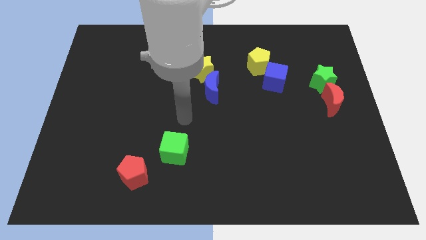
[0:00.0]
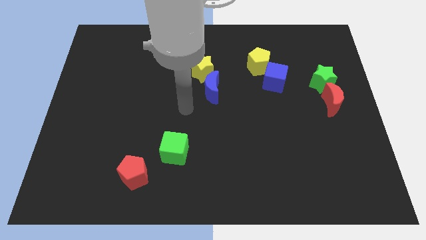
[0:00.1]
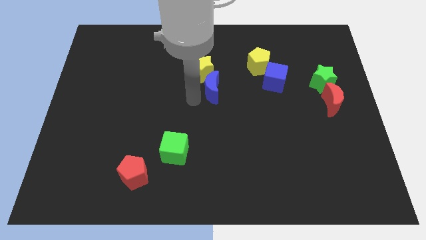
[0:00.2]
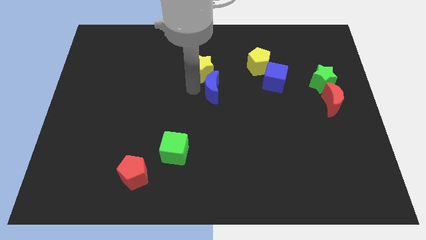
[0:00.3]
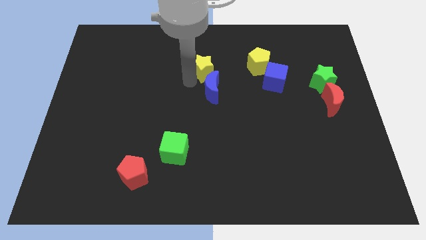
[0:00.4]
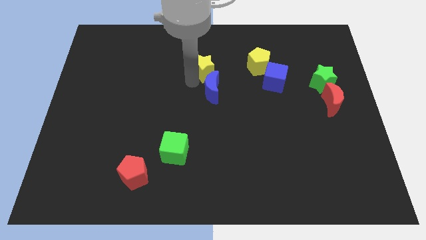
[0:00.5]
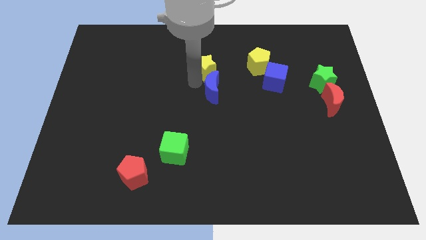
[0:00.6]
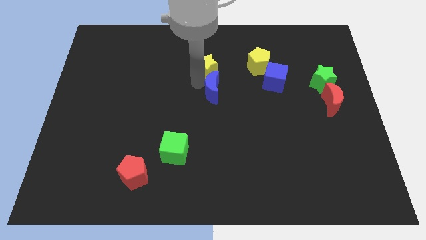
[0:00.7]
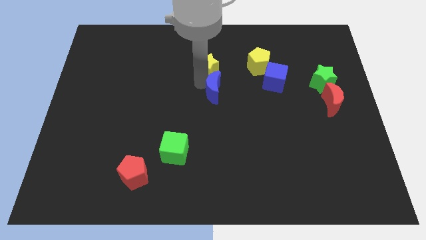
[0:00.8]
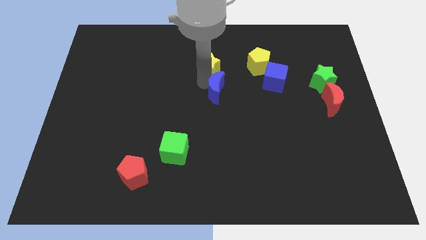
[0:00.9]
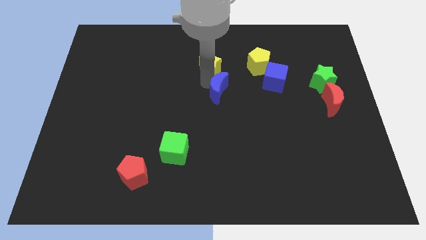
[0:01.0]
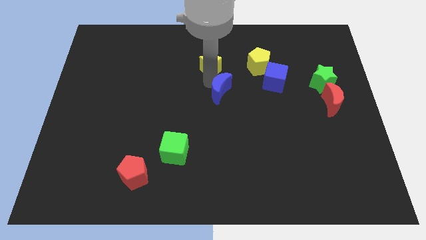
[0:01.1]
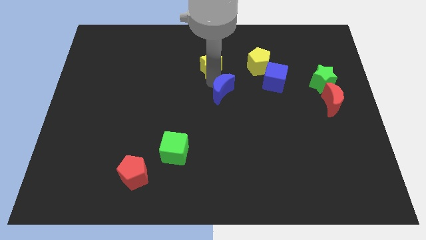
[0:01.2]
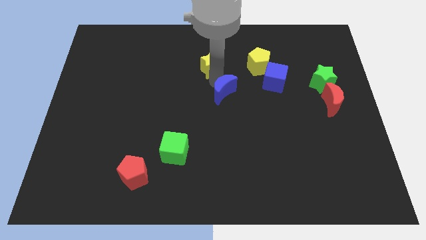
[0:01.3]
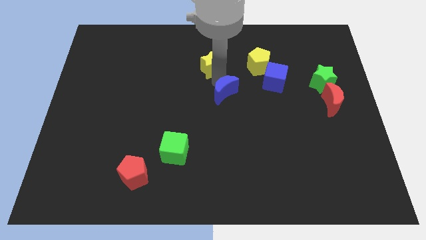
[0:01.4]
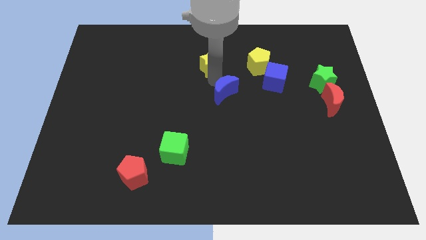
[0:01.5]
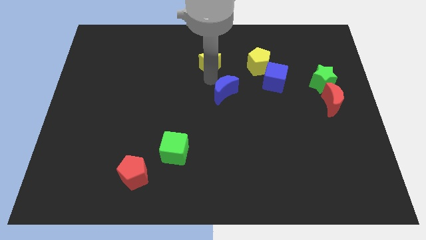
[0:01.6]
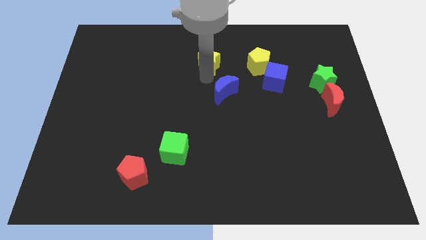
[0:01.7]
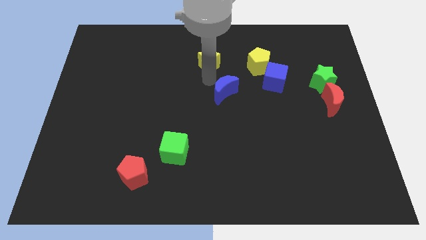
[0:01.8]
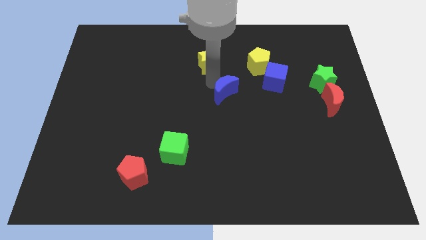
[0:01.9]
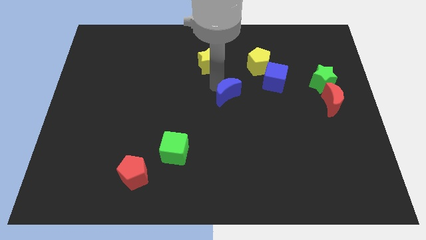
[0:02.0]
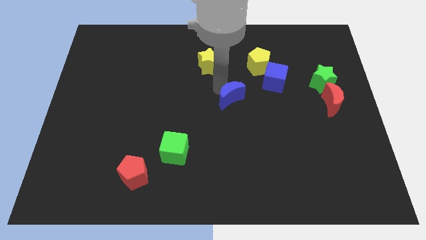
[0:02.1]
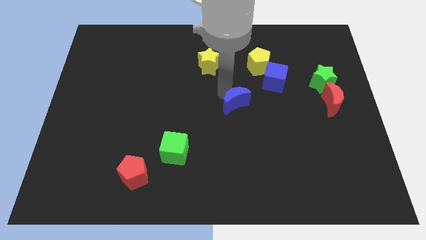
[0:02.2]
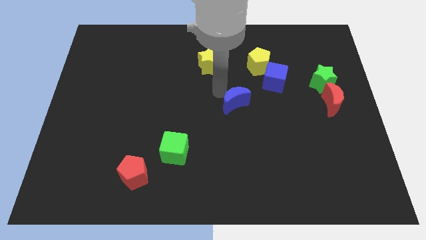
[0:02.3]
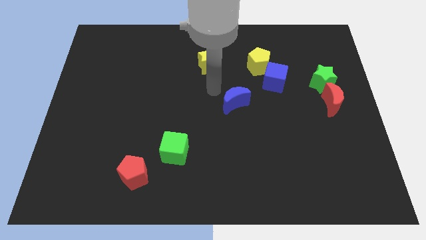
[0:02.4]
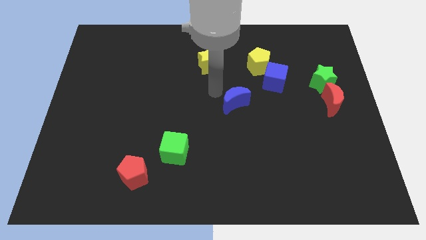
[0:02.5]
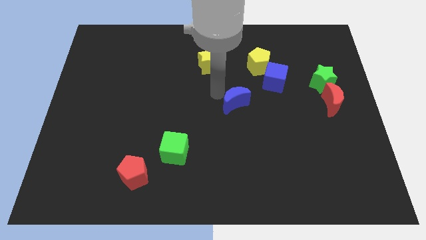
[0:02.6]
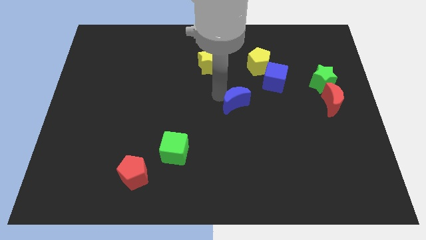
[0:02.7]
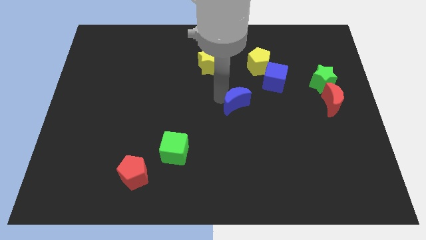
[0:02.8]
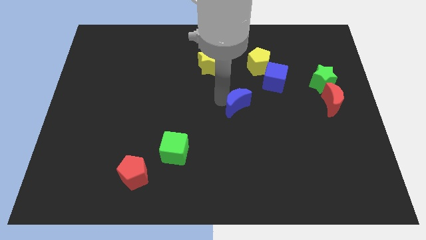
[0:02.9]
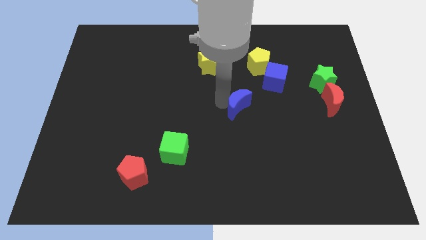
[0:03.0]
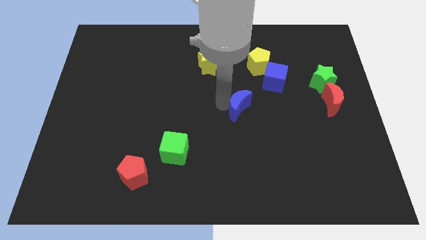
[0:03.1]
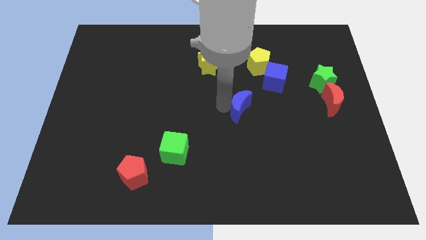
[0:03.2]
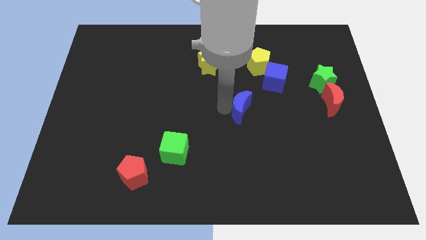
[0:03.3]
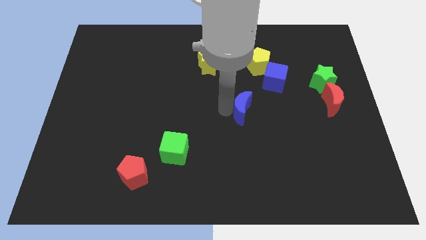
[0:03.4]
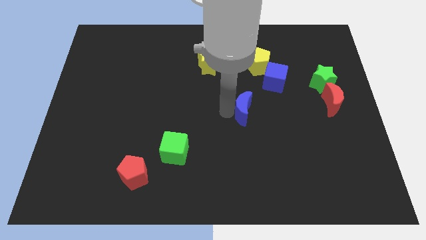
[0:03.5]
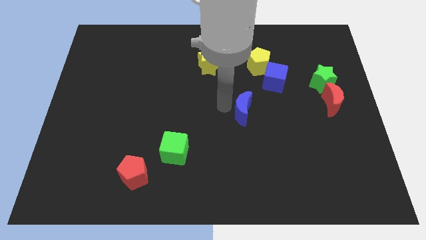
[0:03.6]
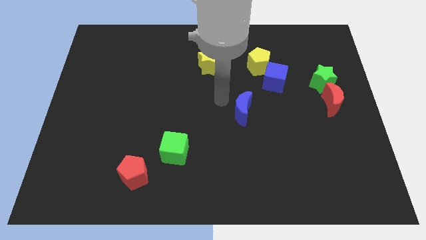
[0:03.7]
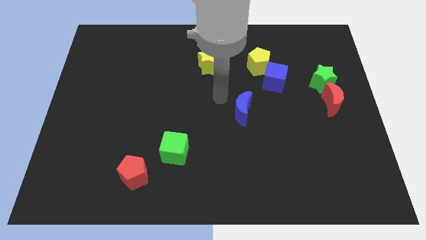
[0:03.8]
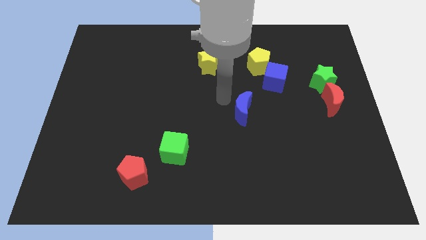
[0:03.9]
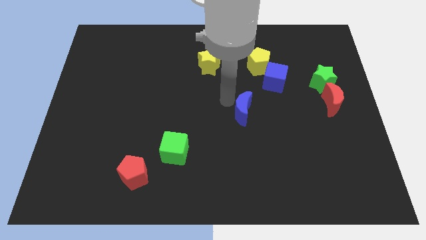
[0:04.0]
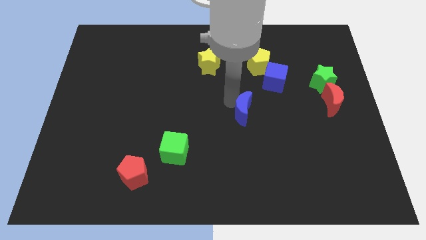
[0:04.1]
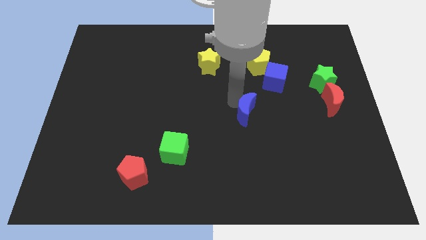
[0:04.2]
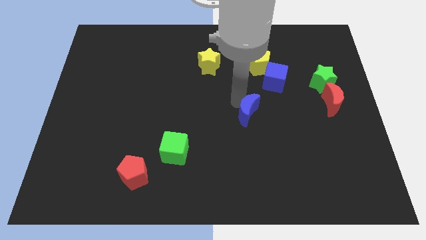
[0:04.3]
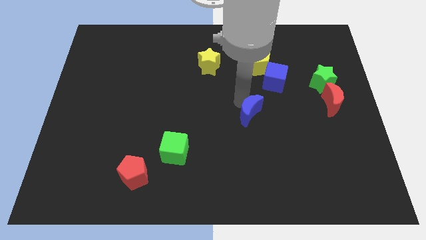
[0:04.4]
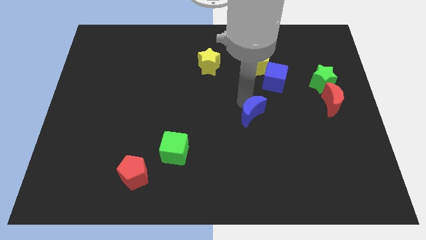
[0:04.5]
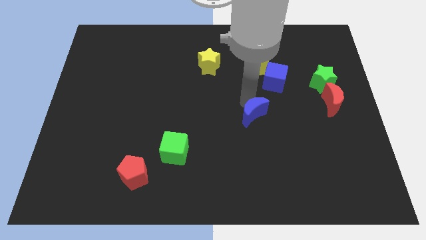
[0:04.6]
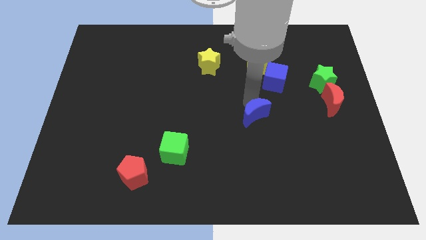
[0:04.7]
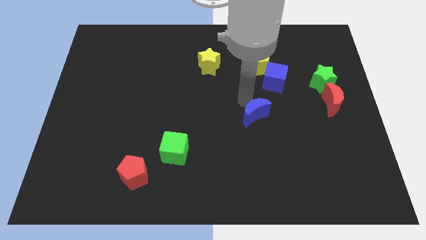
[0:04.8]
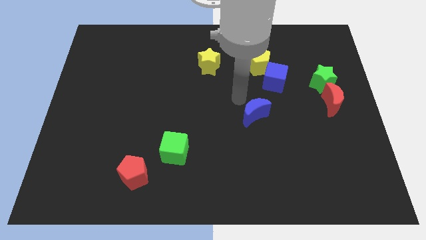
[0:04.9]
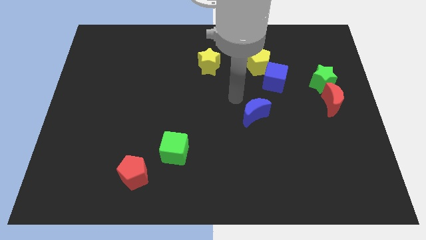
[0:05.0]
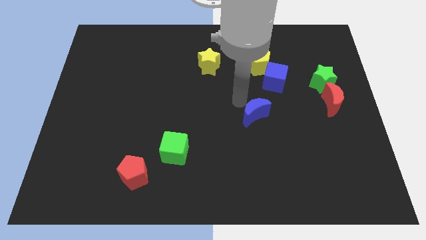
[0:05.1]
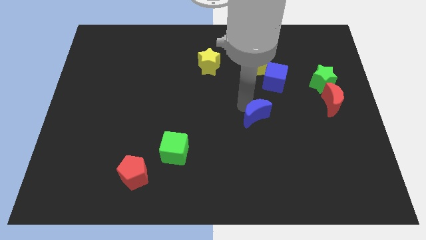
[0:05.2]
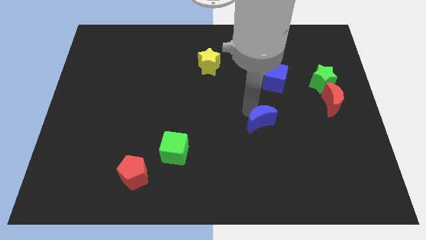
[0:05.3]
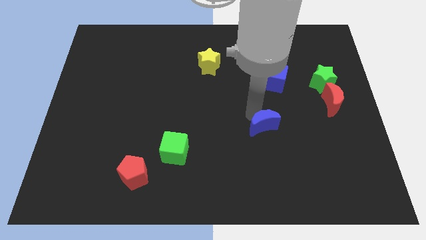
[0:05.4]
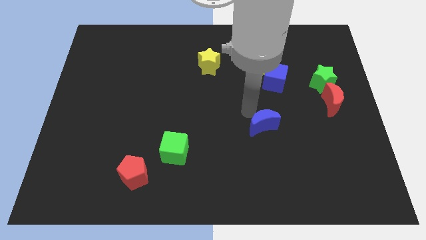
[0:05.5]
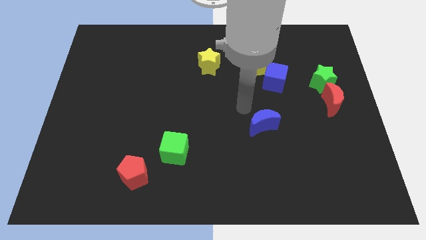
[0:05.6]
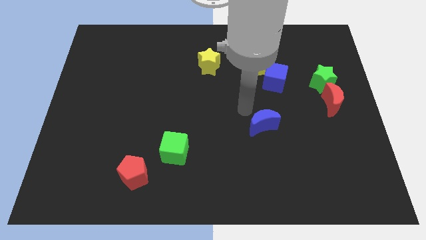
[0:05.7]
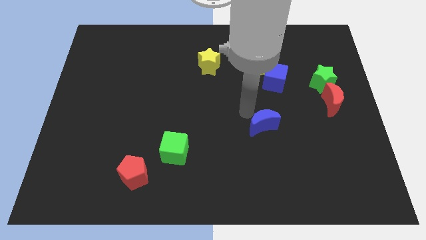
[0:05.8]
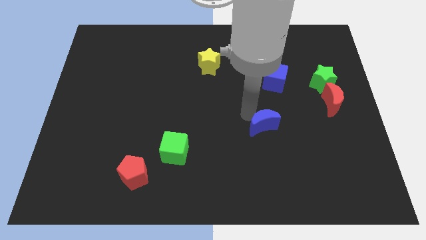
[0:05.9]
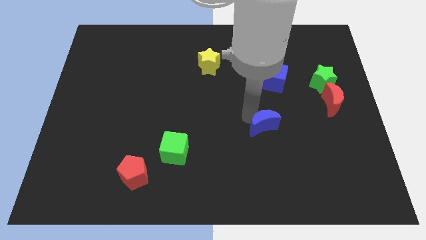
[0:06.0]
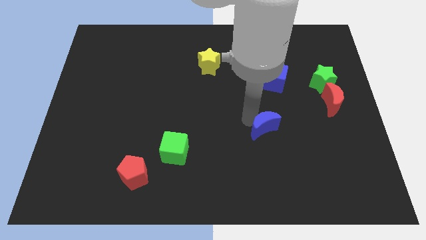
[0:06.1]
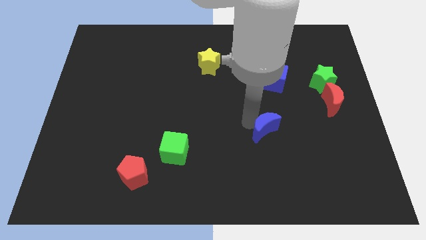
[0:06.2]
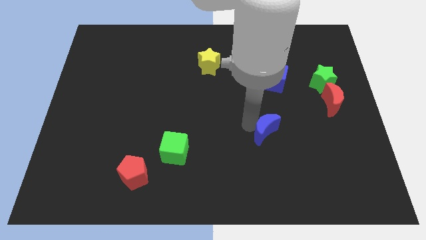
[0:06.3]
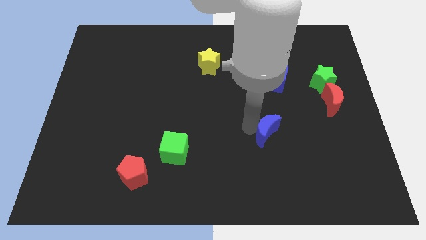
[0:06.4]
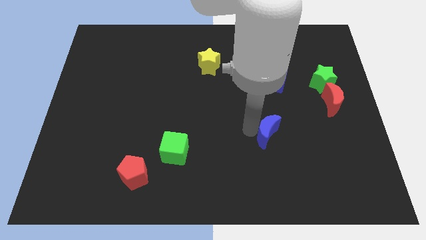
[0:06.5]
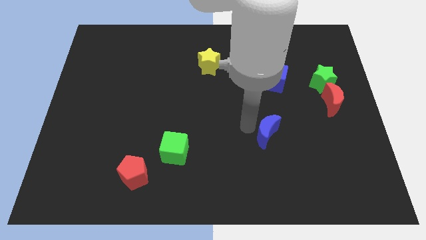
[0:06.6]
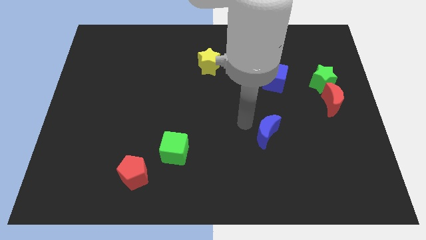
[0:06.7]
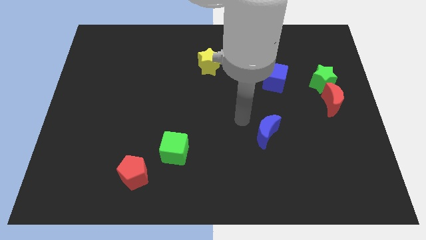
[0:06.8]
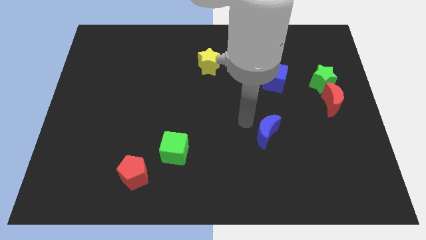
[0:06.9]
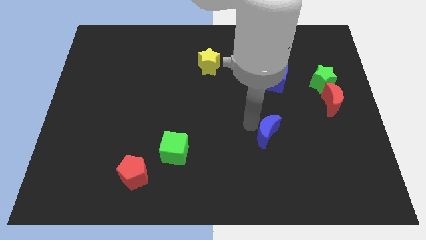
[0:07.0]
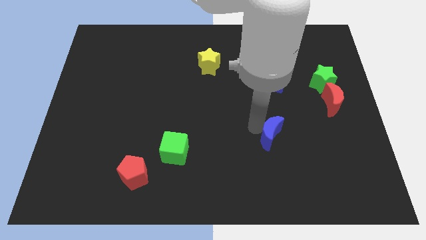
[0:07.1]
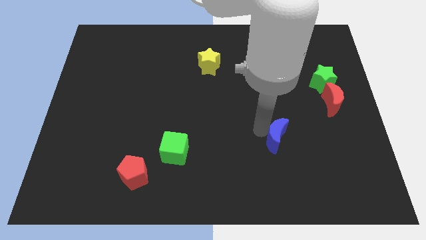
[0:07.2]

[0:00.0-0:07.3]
slide the blue moon down and right diagonally

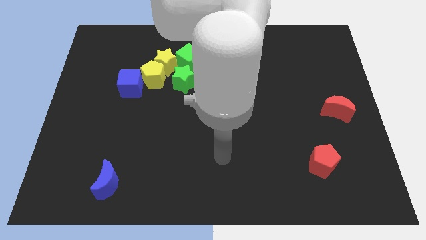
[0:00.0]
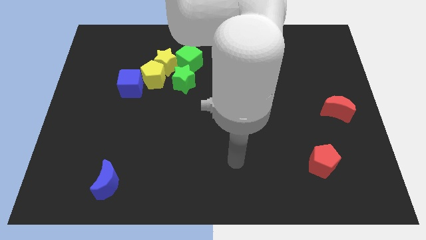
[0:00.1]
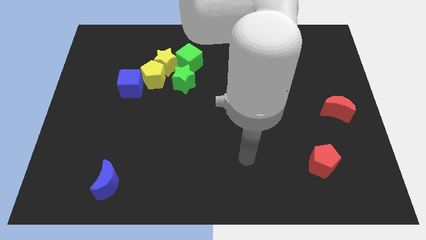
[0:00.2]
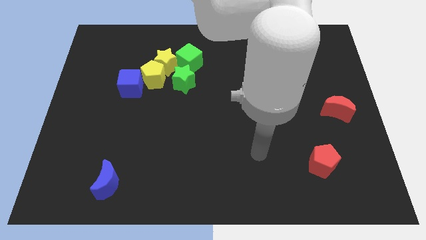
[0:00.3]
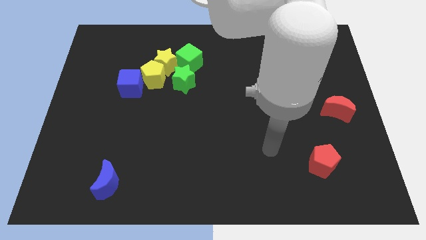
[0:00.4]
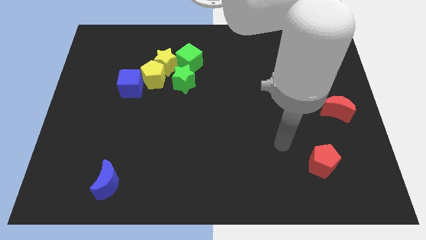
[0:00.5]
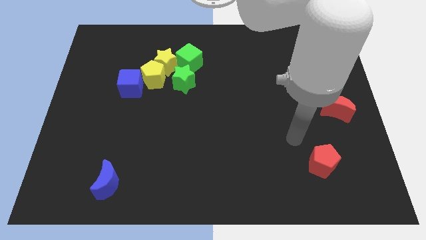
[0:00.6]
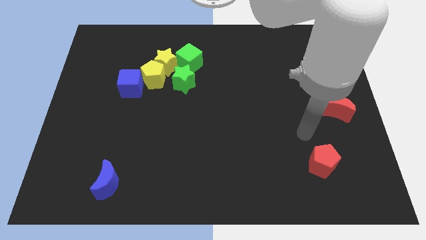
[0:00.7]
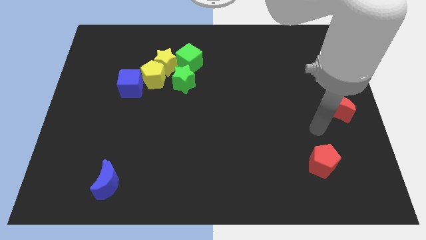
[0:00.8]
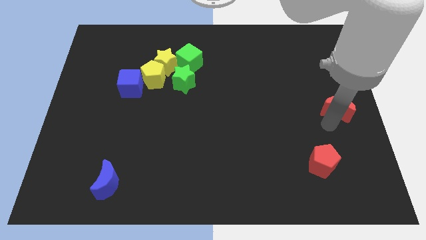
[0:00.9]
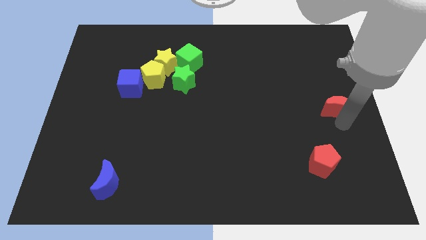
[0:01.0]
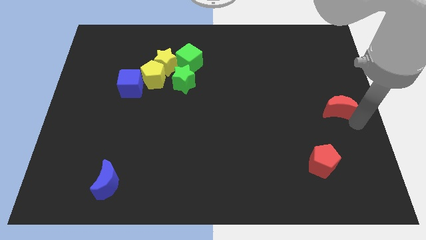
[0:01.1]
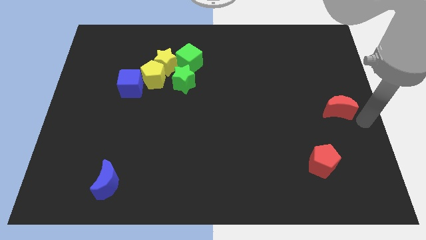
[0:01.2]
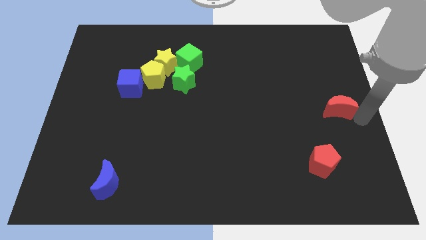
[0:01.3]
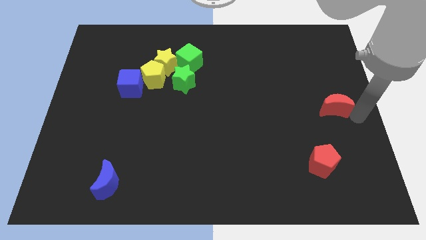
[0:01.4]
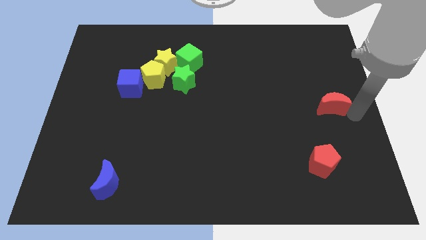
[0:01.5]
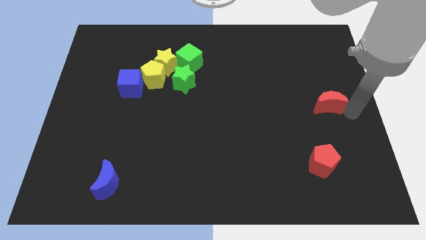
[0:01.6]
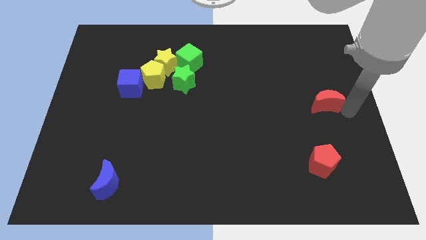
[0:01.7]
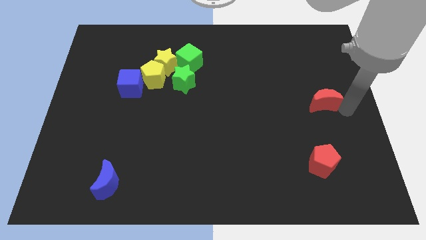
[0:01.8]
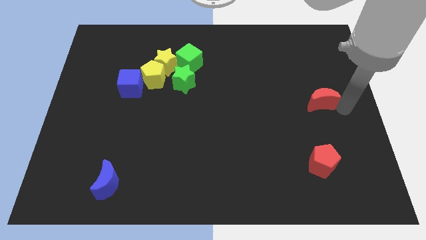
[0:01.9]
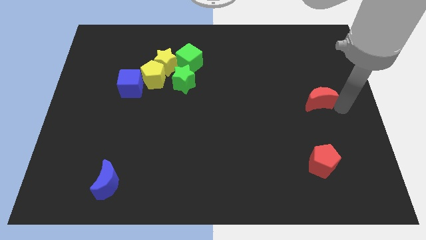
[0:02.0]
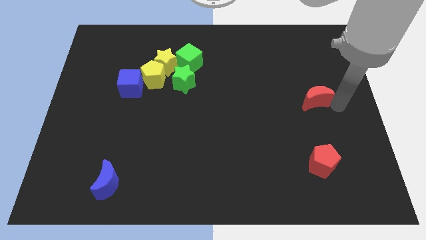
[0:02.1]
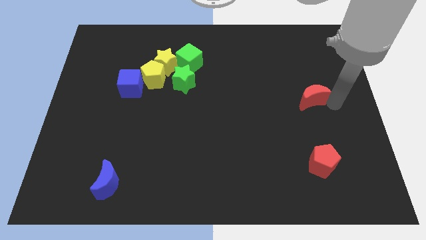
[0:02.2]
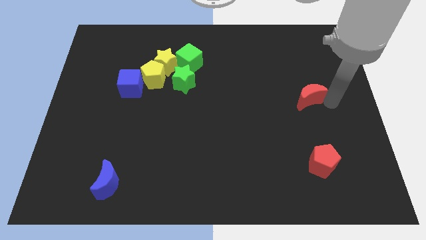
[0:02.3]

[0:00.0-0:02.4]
slide the red moon a little diagonally upwards and to the left
